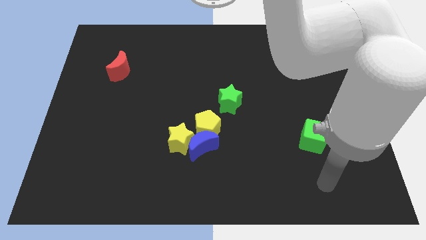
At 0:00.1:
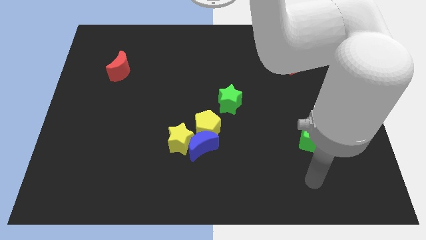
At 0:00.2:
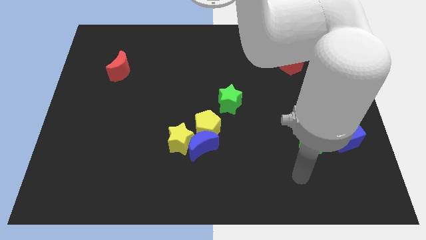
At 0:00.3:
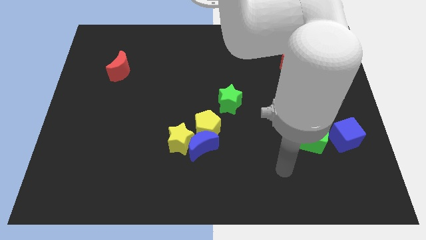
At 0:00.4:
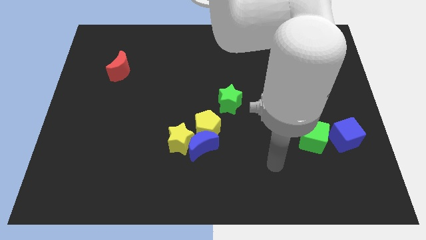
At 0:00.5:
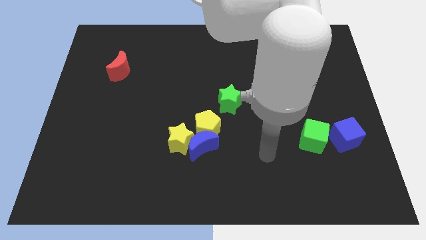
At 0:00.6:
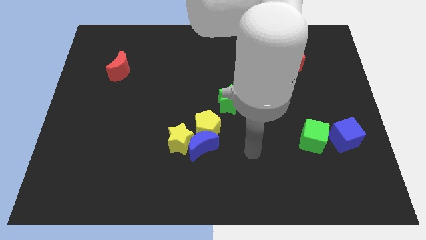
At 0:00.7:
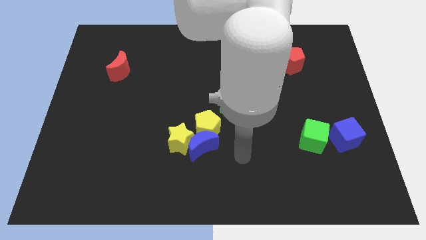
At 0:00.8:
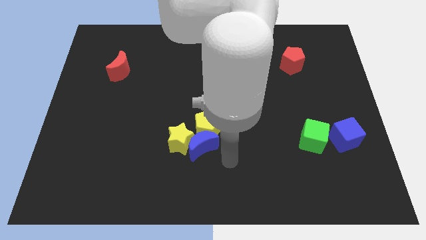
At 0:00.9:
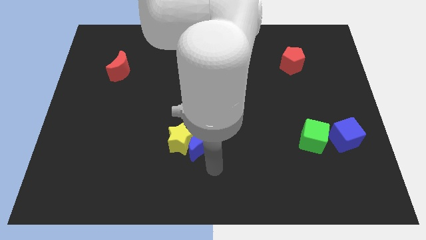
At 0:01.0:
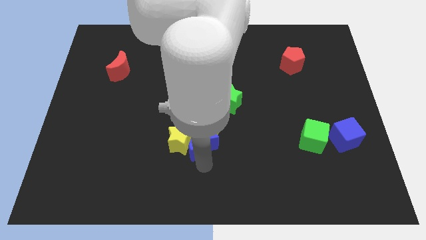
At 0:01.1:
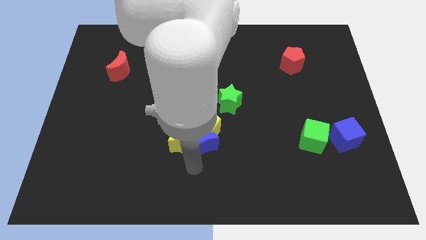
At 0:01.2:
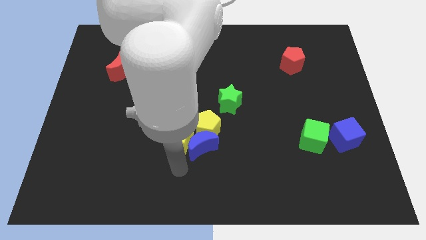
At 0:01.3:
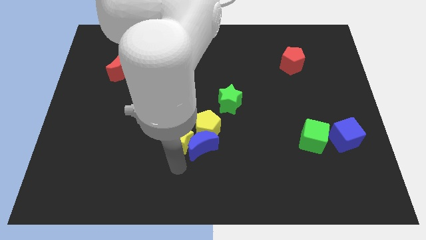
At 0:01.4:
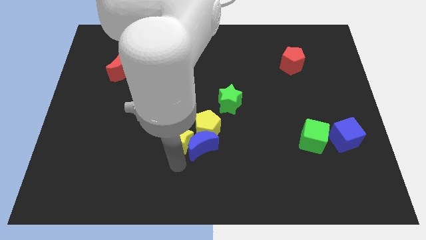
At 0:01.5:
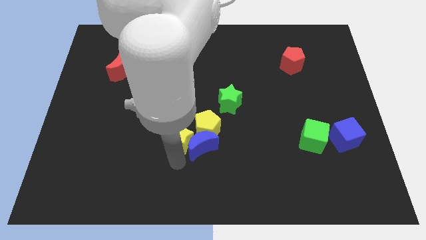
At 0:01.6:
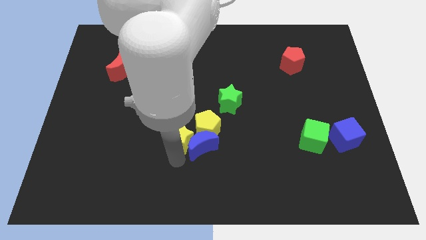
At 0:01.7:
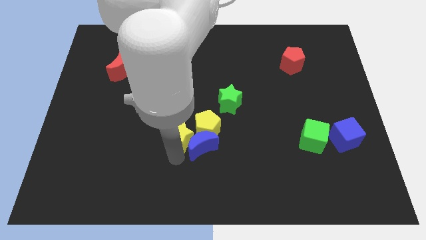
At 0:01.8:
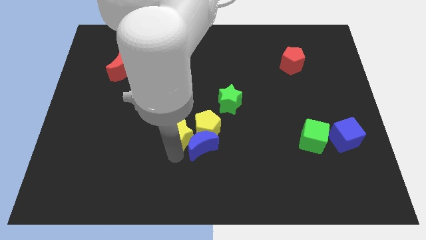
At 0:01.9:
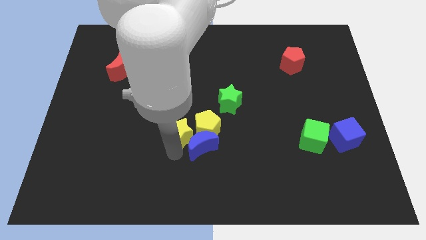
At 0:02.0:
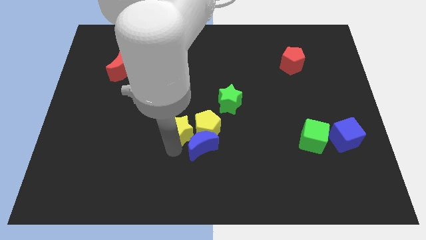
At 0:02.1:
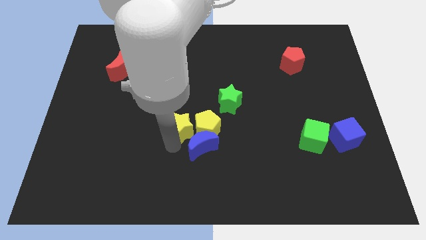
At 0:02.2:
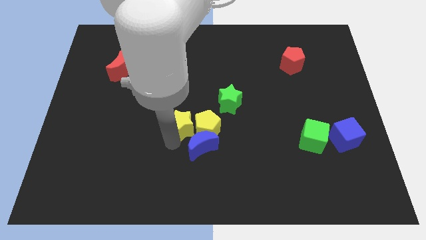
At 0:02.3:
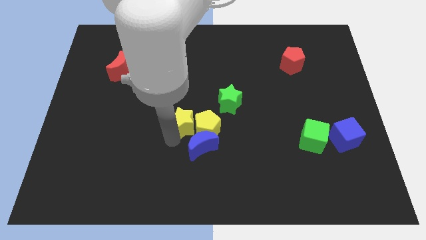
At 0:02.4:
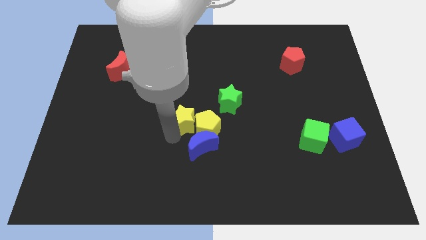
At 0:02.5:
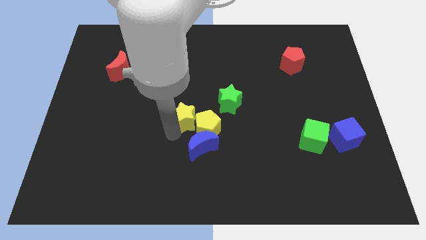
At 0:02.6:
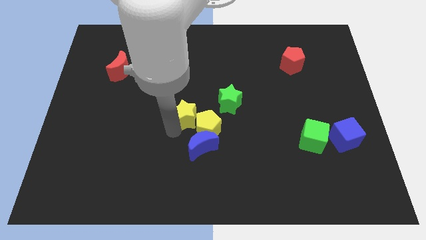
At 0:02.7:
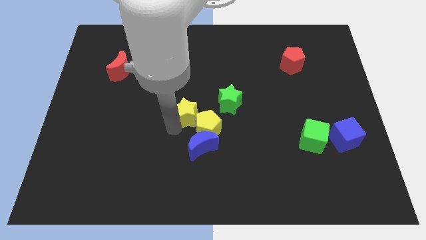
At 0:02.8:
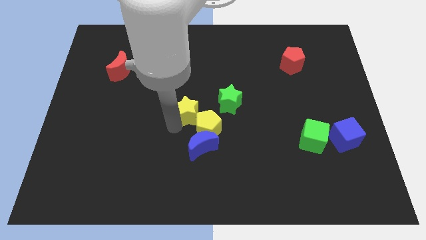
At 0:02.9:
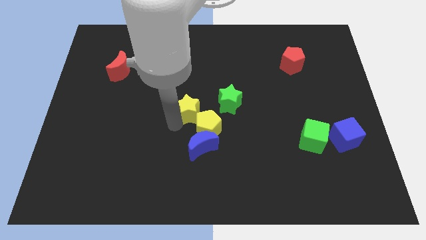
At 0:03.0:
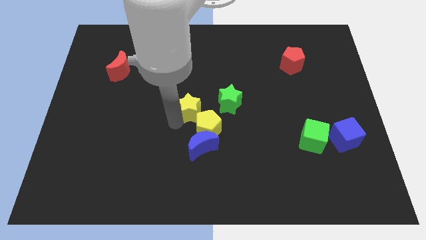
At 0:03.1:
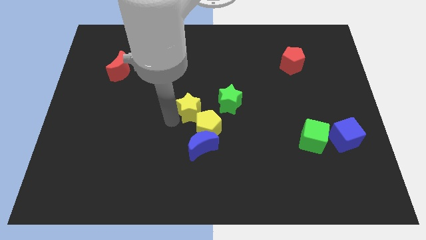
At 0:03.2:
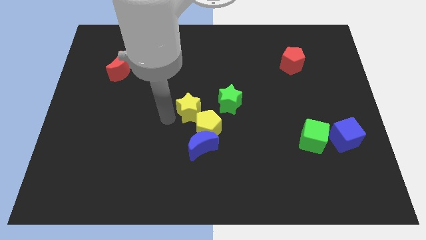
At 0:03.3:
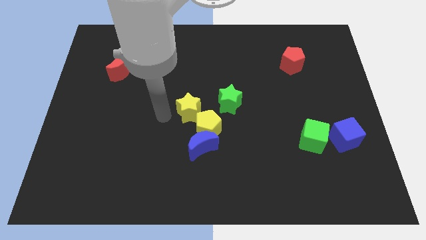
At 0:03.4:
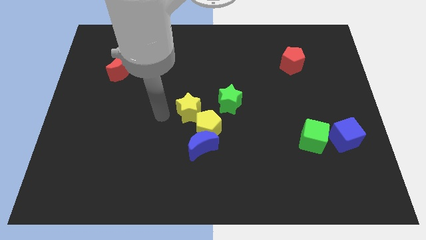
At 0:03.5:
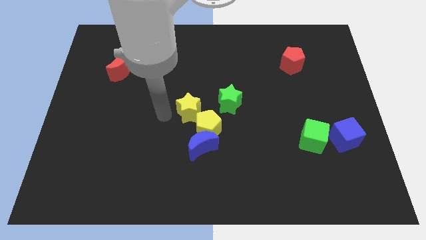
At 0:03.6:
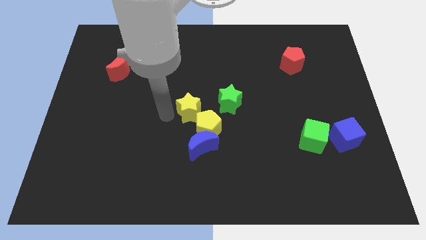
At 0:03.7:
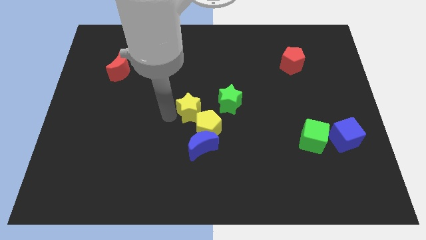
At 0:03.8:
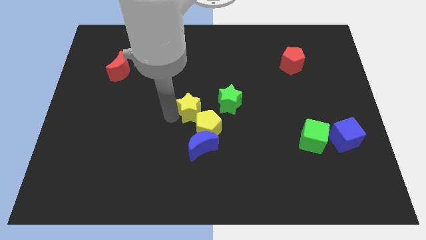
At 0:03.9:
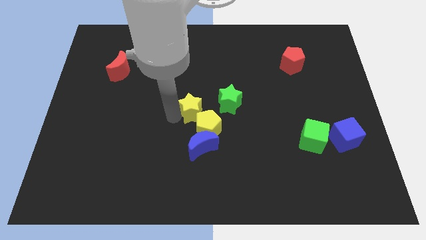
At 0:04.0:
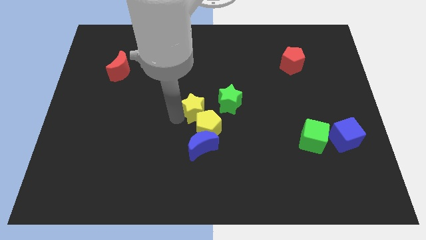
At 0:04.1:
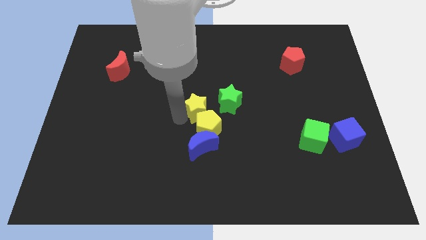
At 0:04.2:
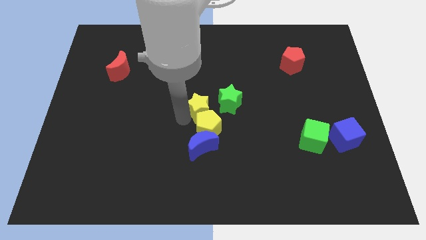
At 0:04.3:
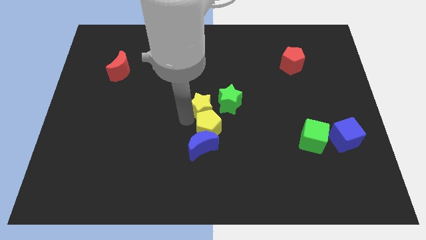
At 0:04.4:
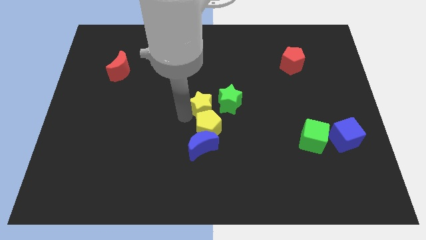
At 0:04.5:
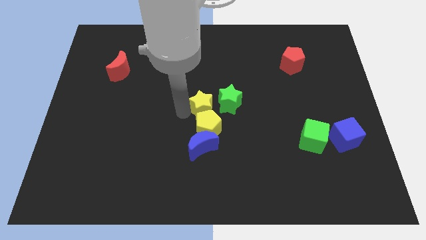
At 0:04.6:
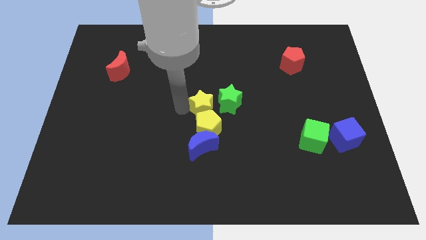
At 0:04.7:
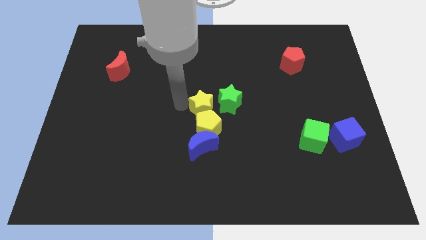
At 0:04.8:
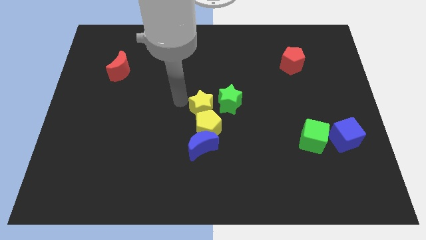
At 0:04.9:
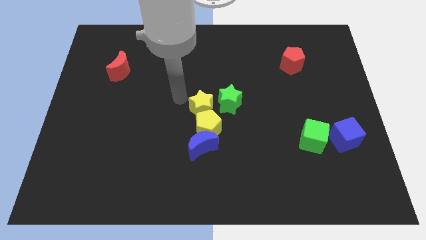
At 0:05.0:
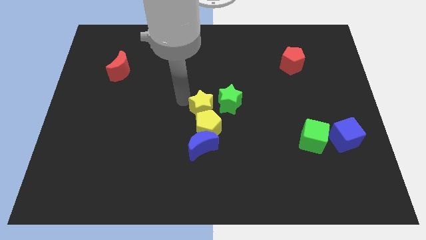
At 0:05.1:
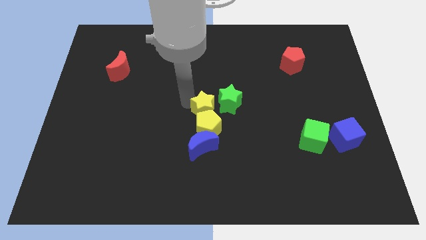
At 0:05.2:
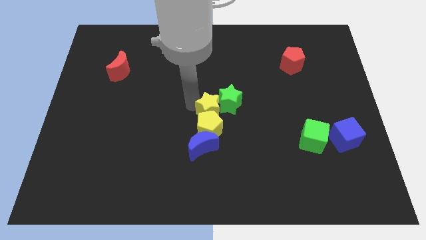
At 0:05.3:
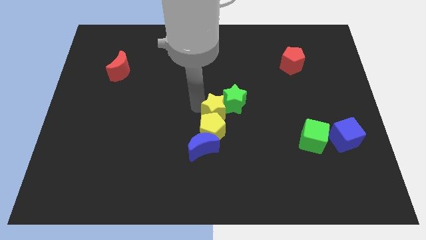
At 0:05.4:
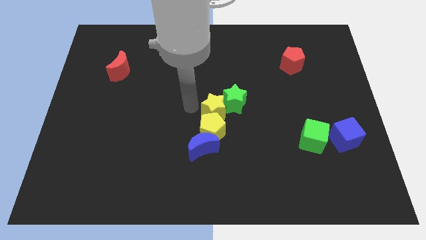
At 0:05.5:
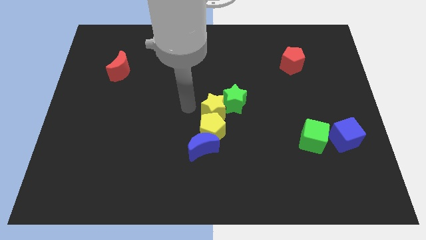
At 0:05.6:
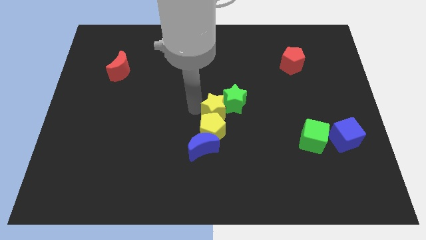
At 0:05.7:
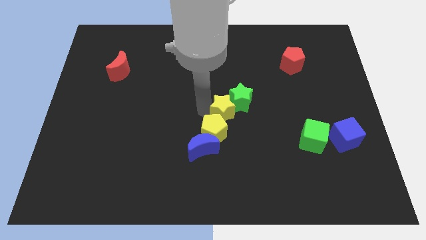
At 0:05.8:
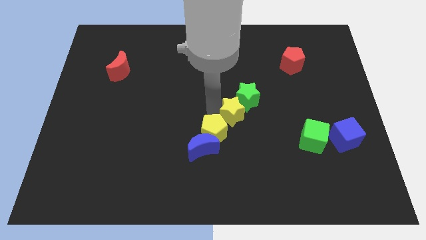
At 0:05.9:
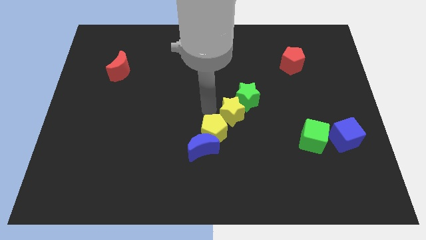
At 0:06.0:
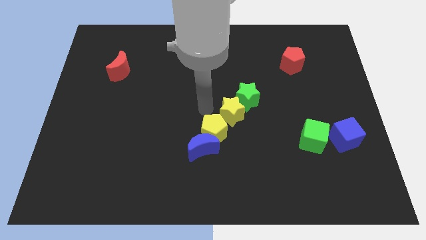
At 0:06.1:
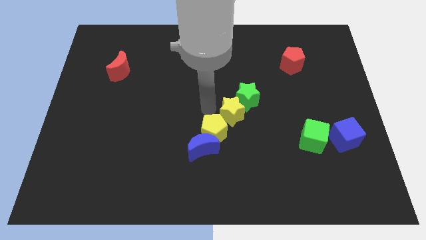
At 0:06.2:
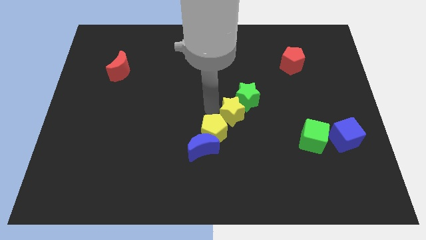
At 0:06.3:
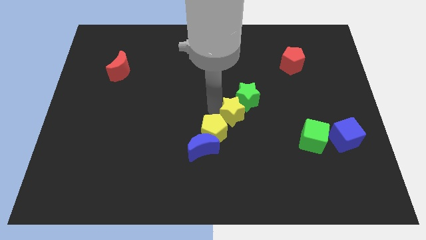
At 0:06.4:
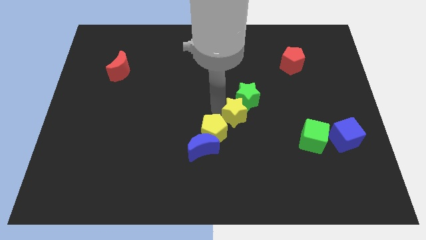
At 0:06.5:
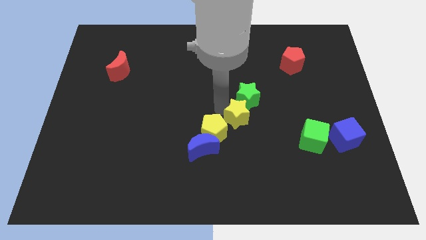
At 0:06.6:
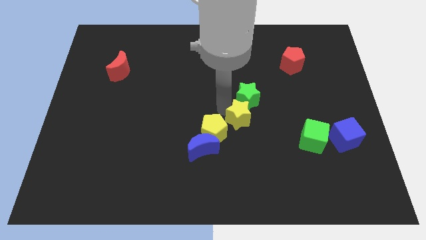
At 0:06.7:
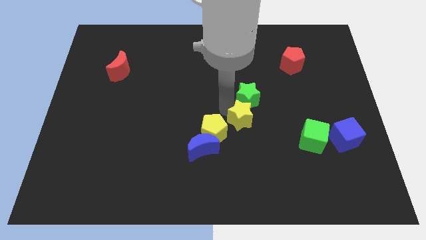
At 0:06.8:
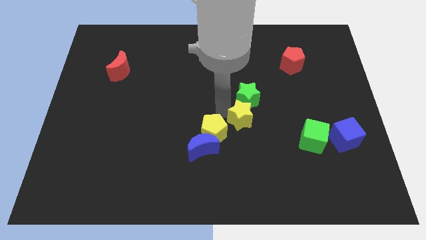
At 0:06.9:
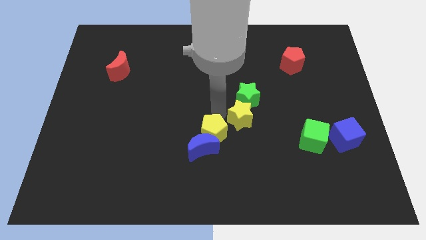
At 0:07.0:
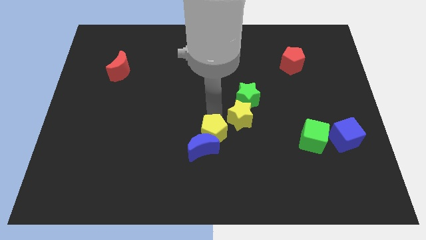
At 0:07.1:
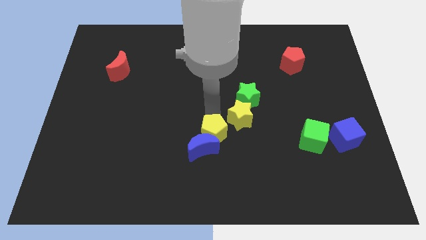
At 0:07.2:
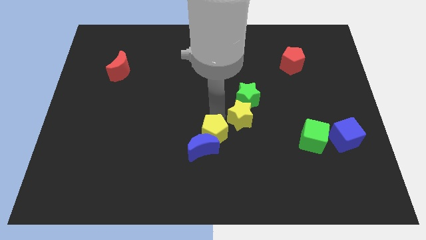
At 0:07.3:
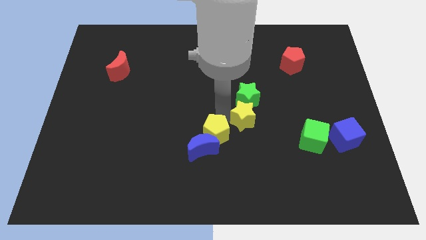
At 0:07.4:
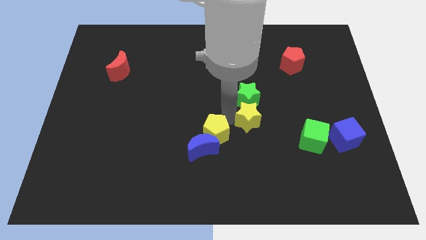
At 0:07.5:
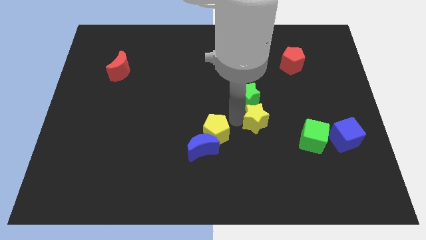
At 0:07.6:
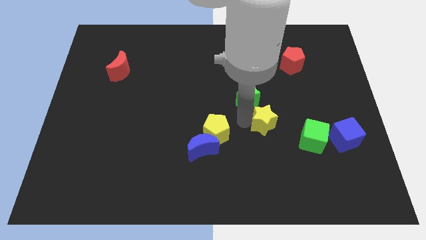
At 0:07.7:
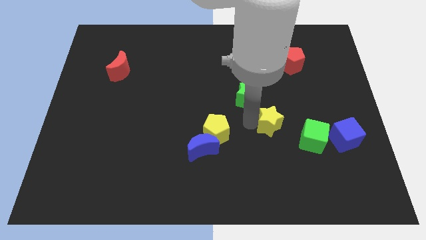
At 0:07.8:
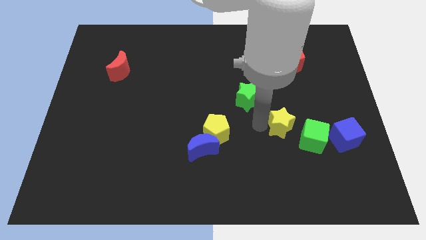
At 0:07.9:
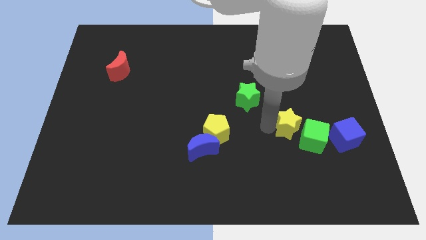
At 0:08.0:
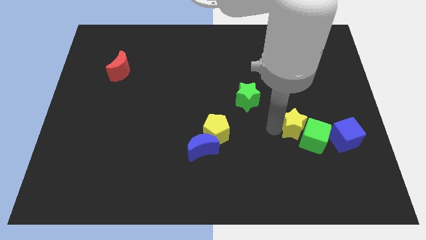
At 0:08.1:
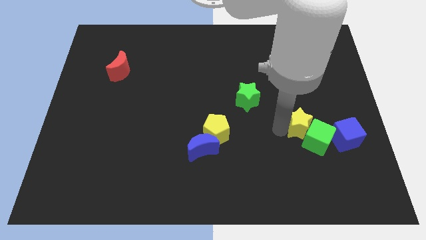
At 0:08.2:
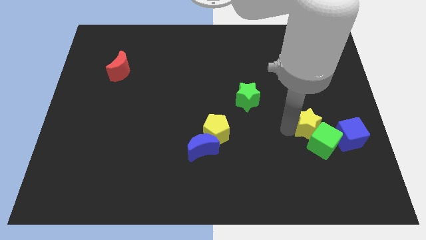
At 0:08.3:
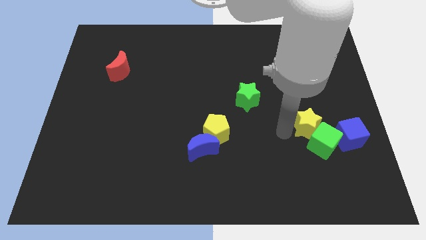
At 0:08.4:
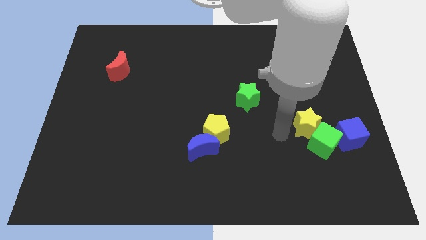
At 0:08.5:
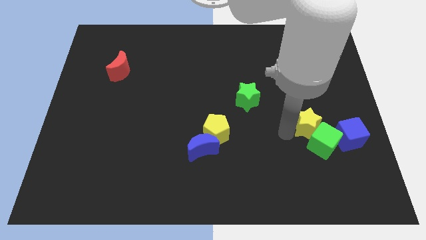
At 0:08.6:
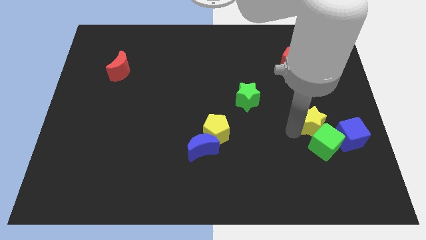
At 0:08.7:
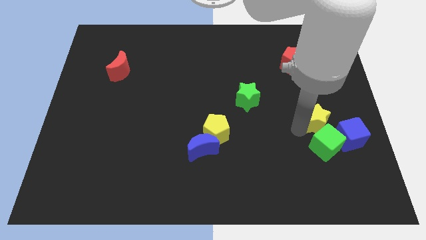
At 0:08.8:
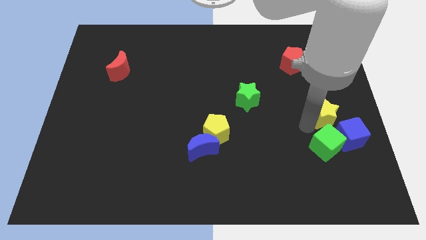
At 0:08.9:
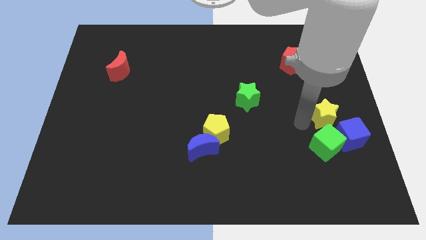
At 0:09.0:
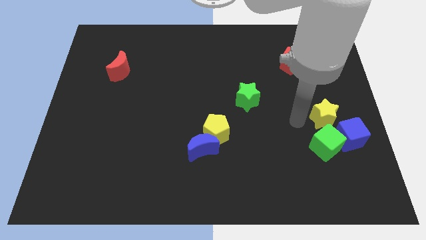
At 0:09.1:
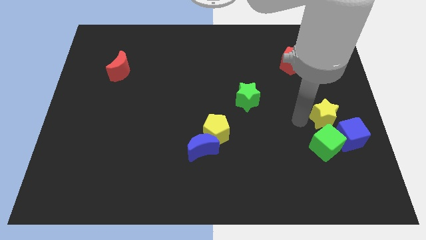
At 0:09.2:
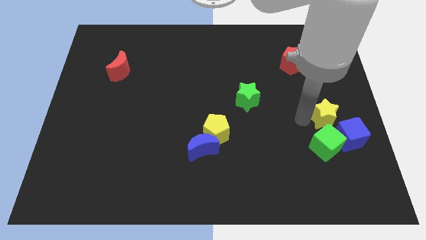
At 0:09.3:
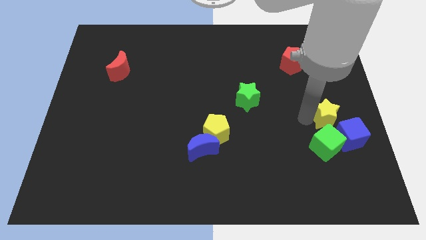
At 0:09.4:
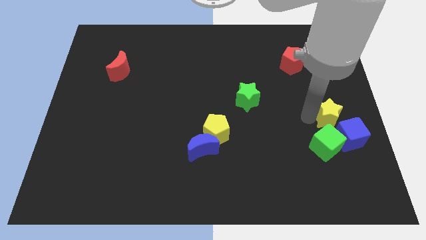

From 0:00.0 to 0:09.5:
move the yellow star to the center right
